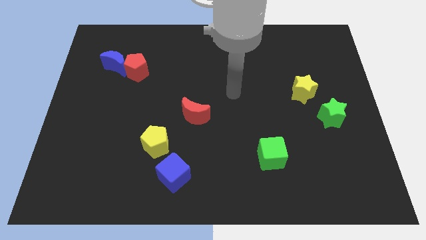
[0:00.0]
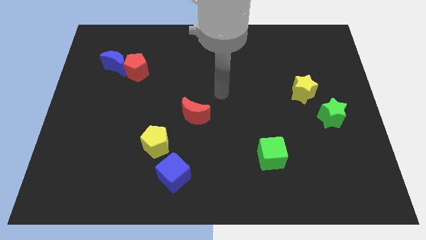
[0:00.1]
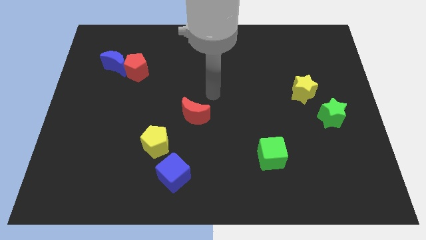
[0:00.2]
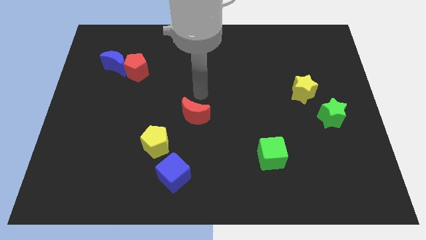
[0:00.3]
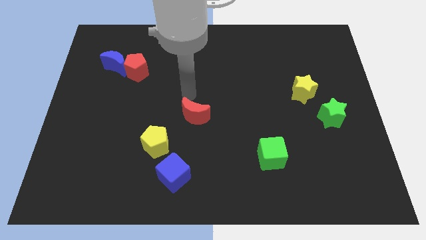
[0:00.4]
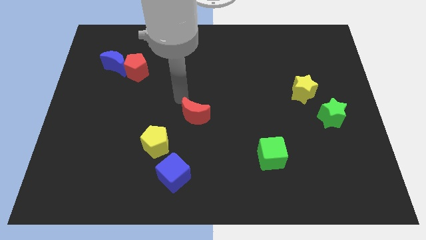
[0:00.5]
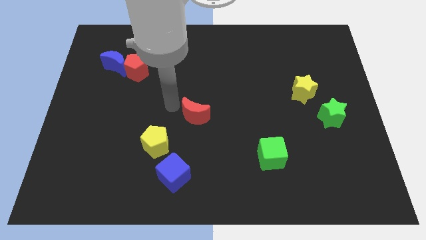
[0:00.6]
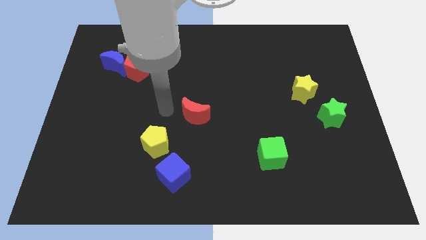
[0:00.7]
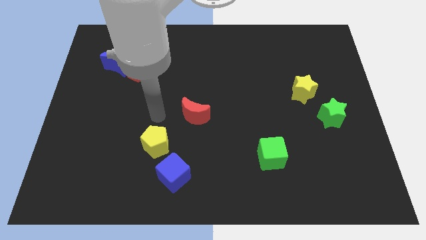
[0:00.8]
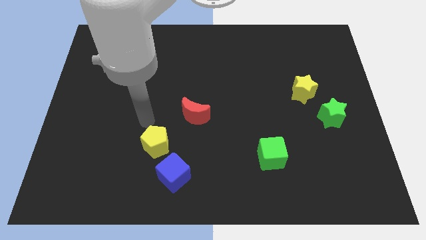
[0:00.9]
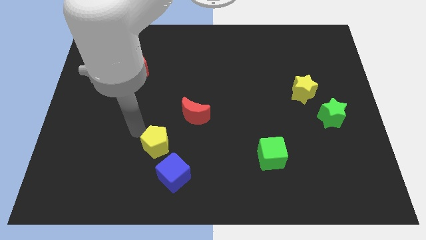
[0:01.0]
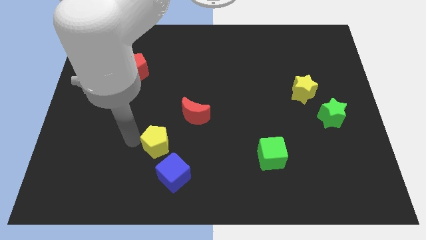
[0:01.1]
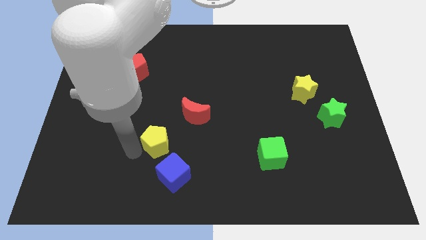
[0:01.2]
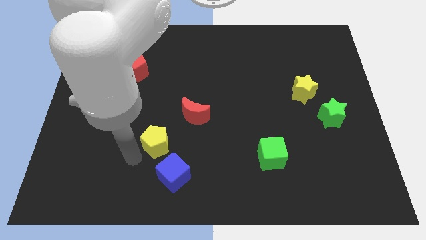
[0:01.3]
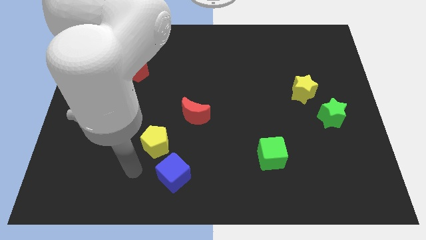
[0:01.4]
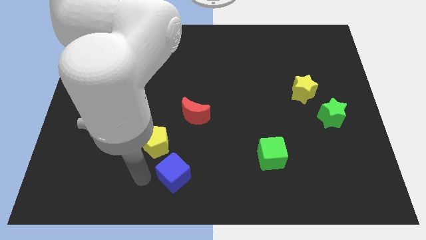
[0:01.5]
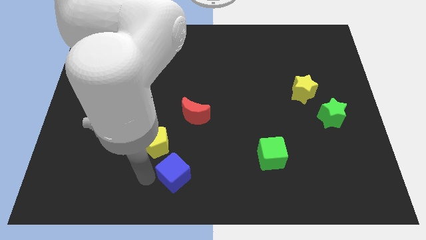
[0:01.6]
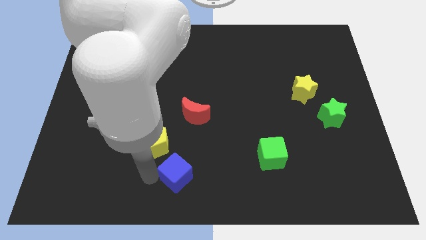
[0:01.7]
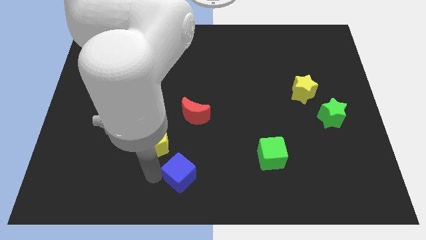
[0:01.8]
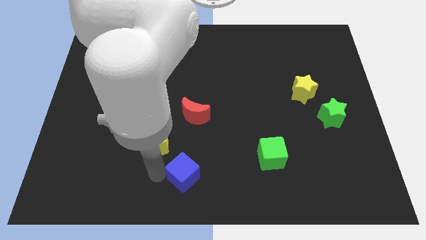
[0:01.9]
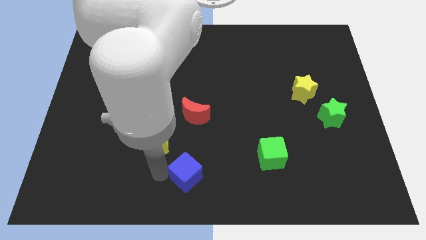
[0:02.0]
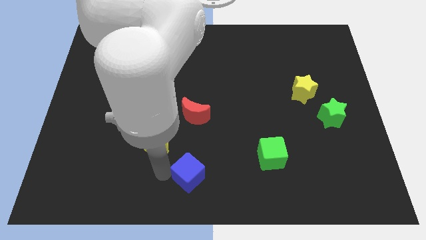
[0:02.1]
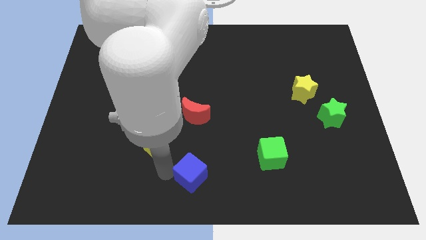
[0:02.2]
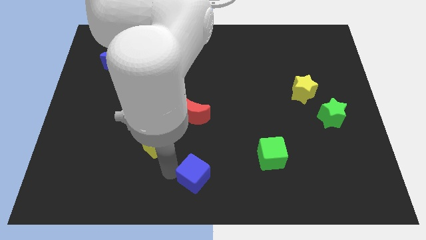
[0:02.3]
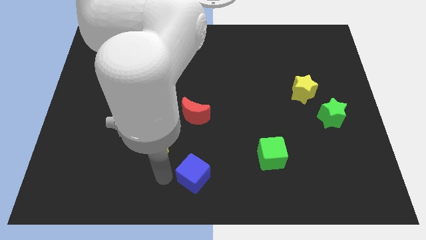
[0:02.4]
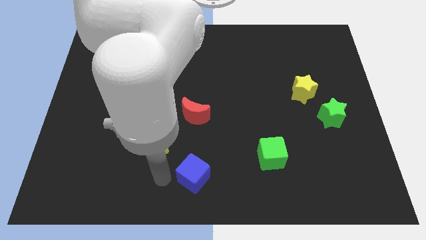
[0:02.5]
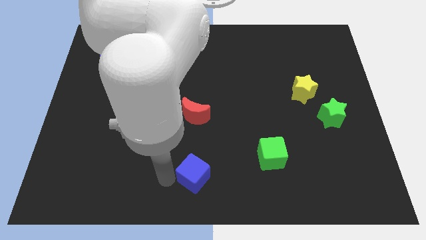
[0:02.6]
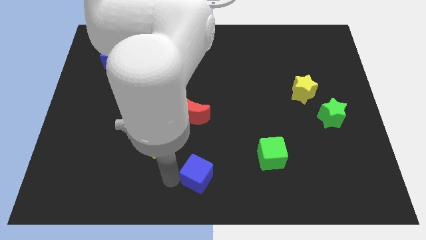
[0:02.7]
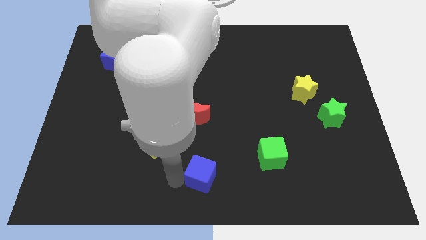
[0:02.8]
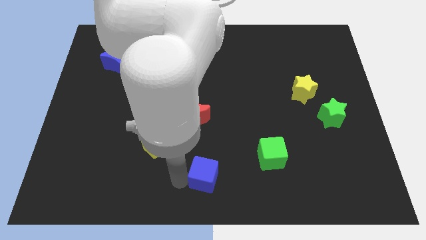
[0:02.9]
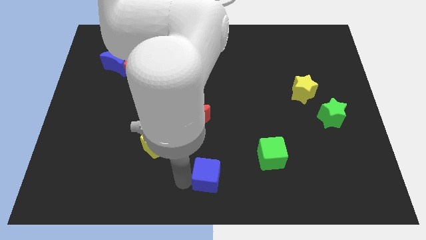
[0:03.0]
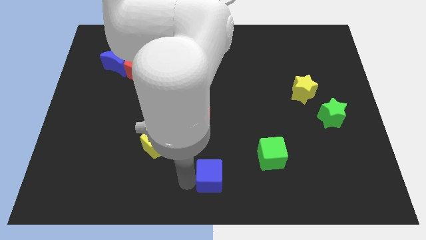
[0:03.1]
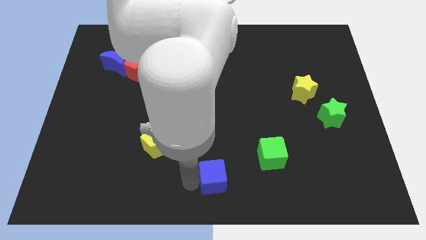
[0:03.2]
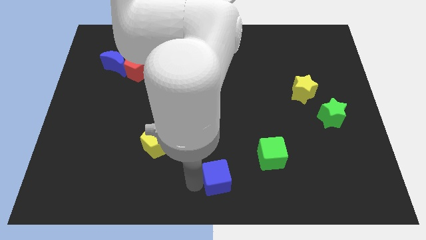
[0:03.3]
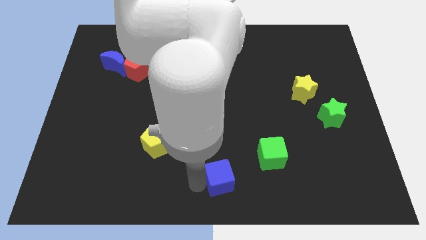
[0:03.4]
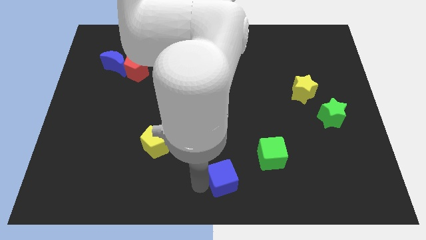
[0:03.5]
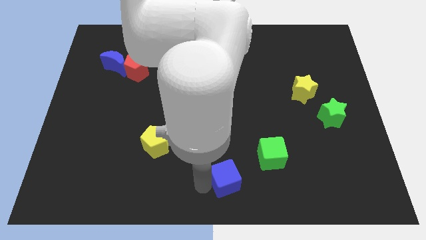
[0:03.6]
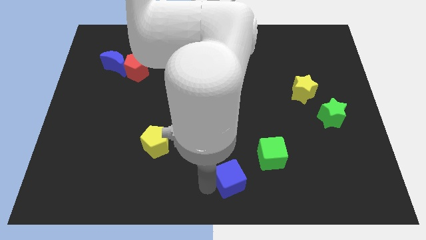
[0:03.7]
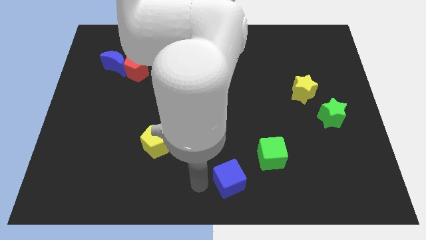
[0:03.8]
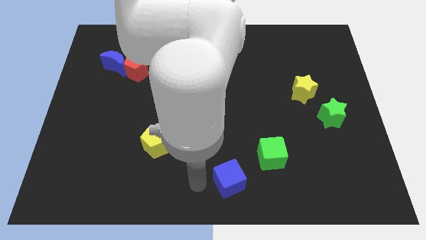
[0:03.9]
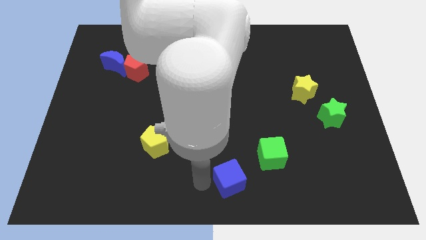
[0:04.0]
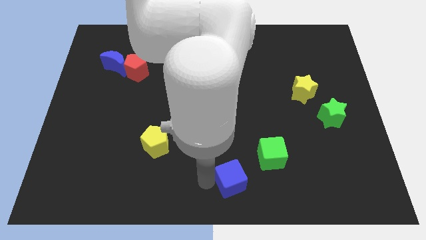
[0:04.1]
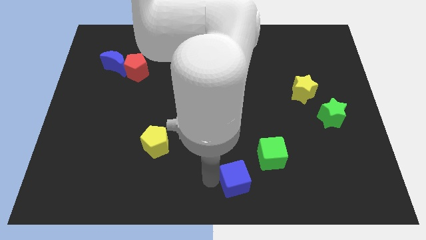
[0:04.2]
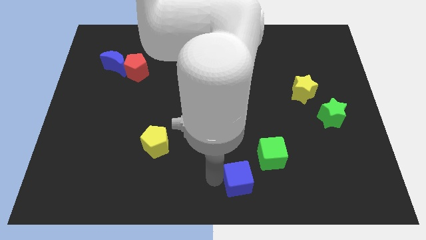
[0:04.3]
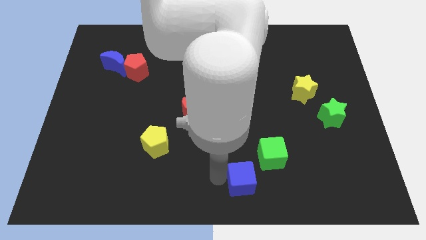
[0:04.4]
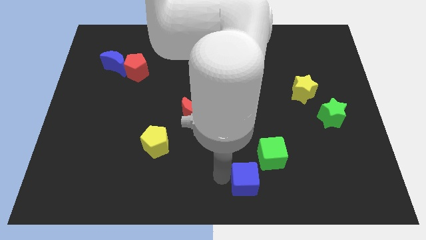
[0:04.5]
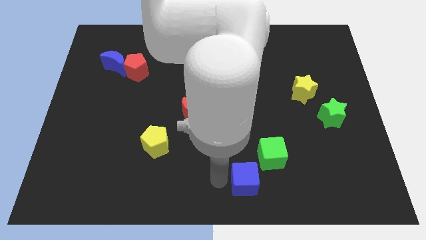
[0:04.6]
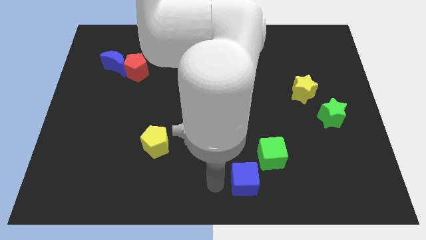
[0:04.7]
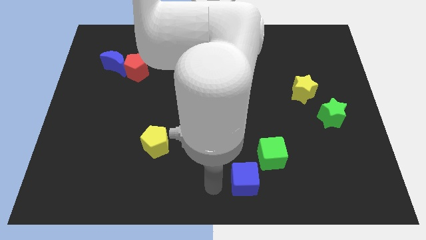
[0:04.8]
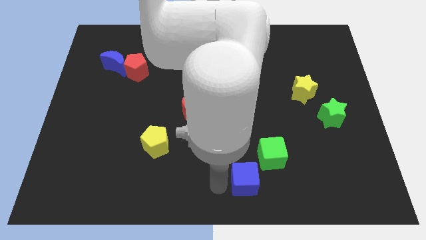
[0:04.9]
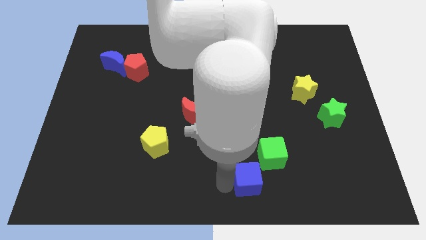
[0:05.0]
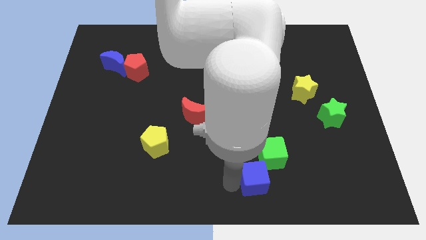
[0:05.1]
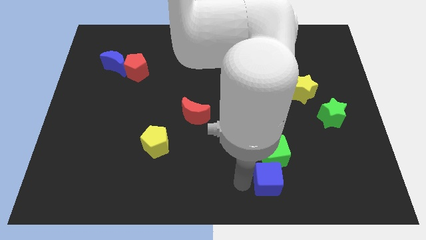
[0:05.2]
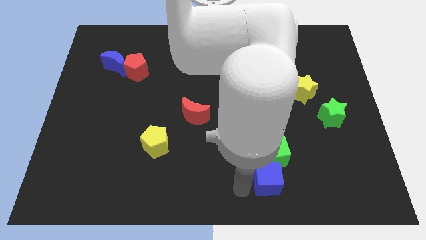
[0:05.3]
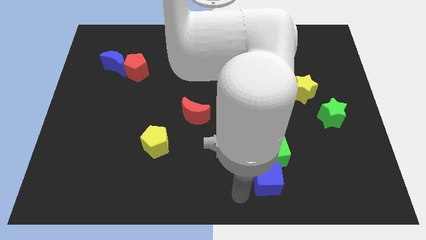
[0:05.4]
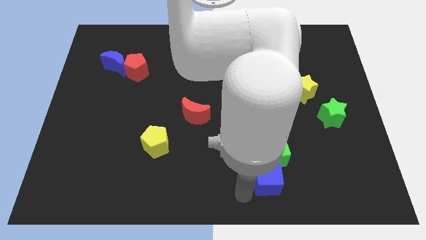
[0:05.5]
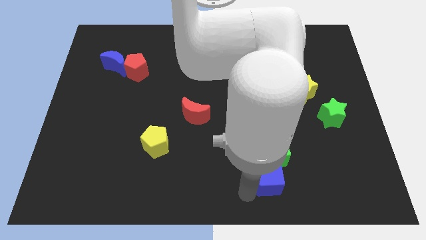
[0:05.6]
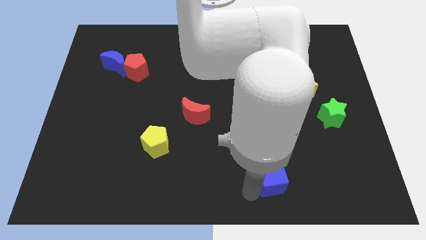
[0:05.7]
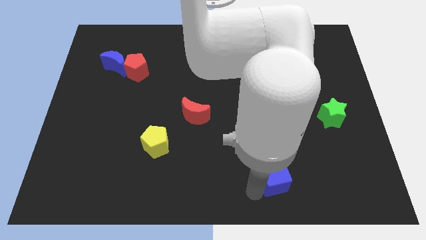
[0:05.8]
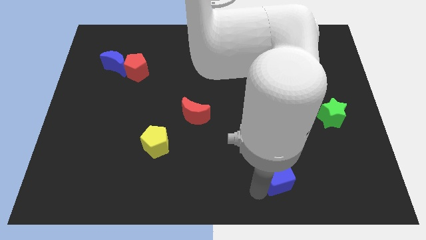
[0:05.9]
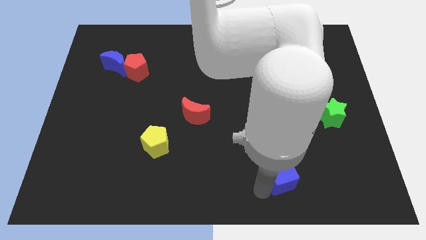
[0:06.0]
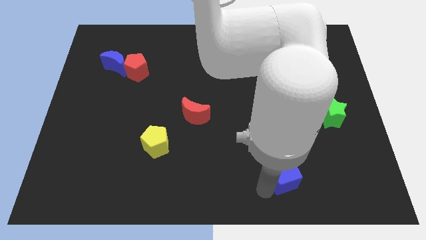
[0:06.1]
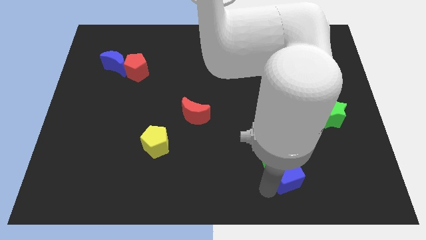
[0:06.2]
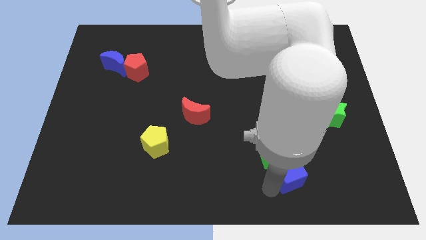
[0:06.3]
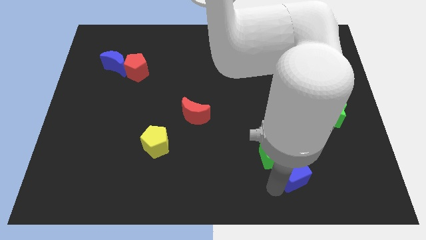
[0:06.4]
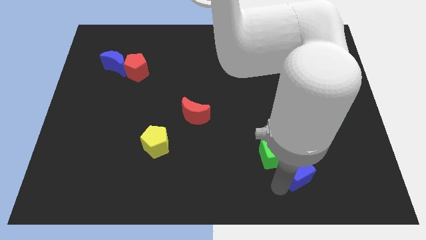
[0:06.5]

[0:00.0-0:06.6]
put the blue cube to the right of the green cube
